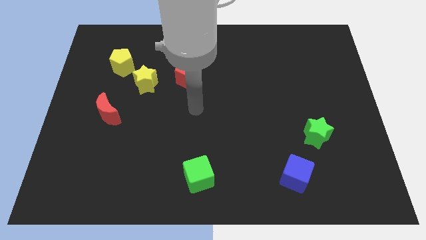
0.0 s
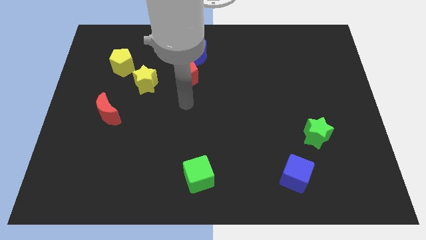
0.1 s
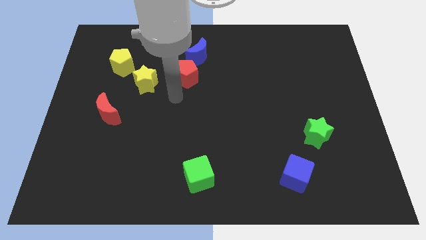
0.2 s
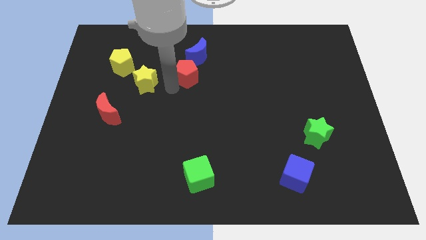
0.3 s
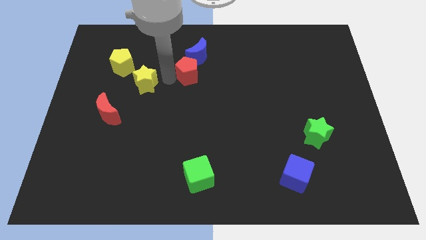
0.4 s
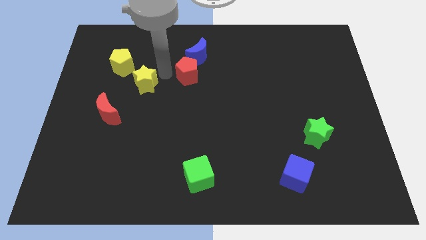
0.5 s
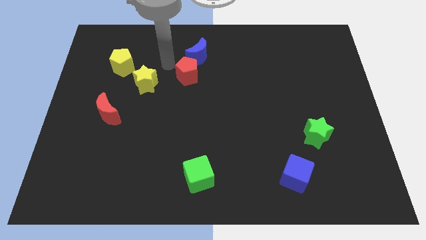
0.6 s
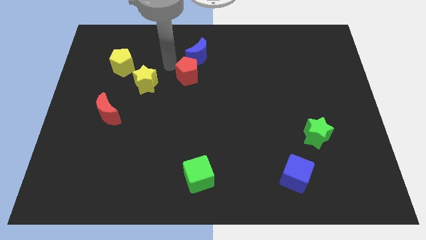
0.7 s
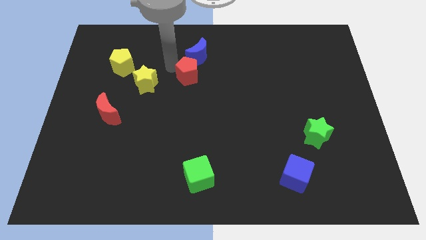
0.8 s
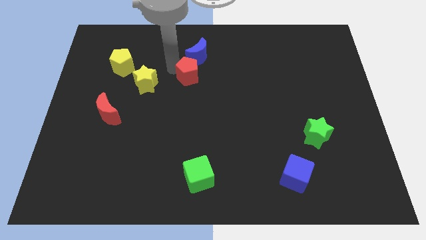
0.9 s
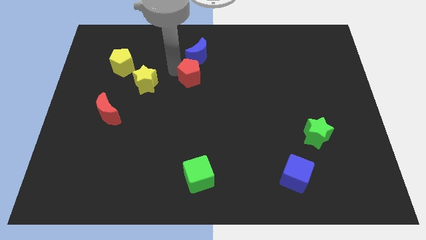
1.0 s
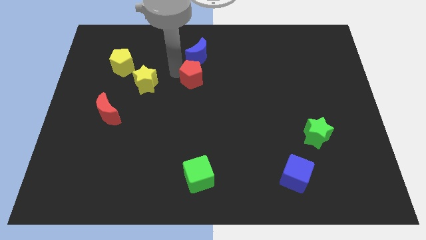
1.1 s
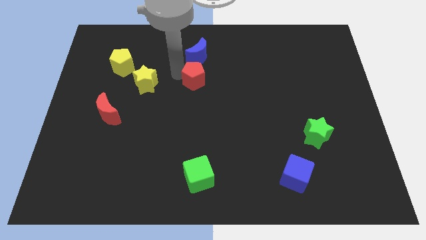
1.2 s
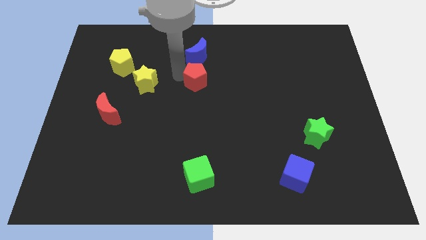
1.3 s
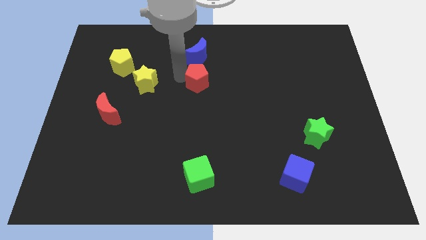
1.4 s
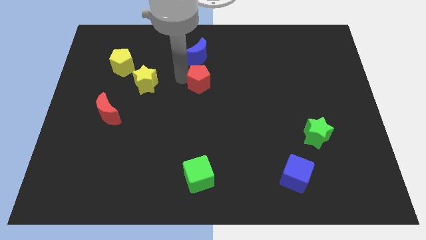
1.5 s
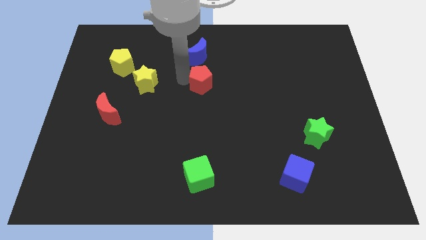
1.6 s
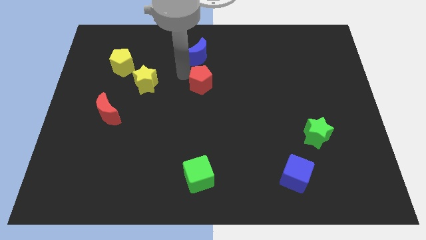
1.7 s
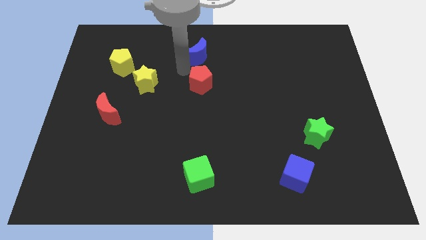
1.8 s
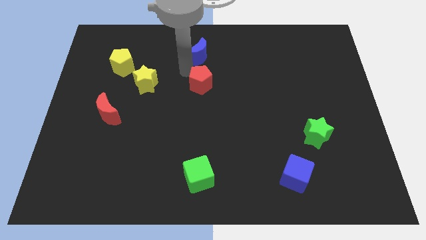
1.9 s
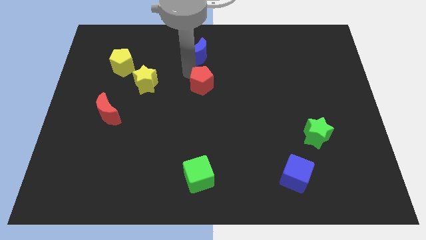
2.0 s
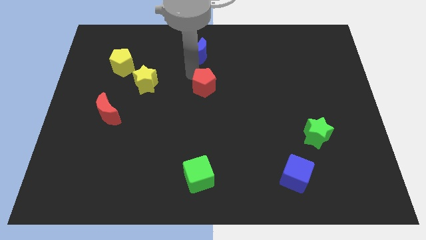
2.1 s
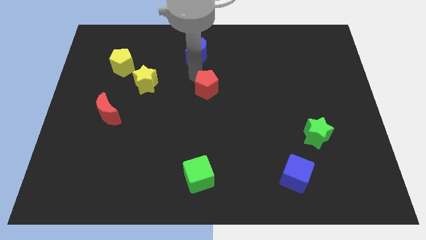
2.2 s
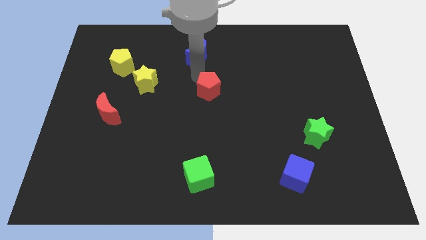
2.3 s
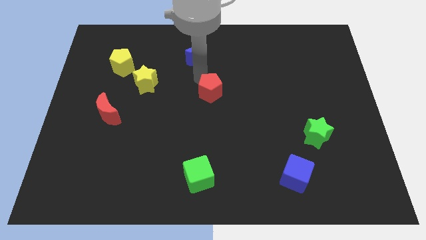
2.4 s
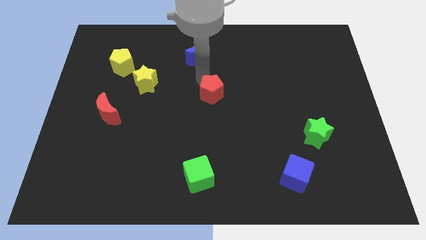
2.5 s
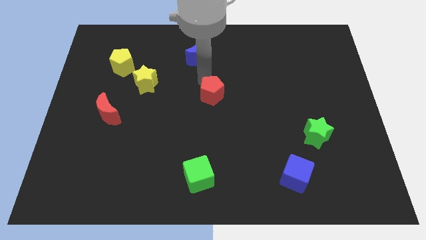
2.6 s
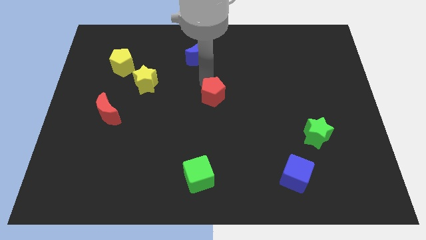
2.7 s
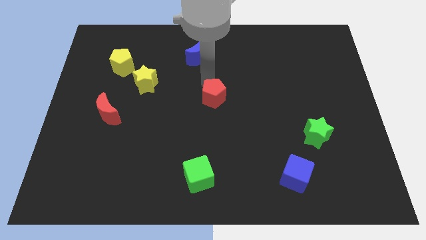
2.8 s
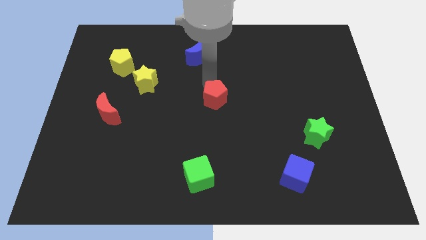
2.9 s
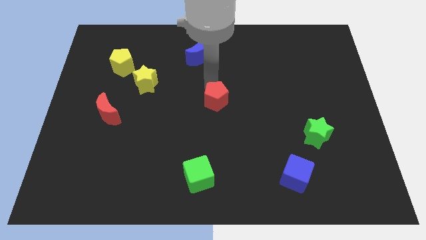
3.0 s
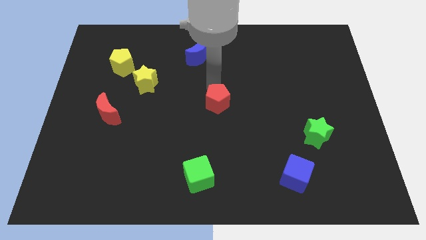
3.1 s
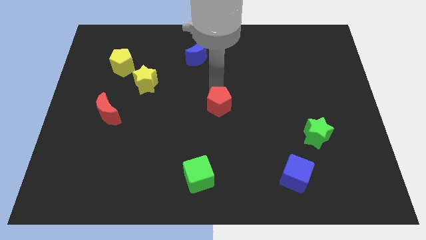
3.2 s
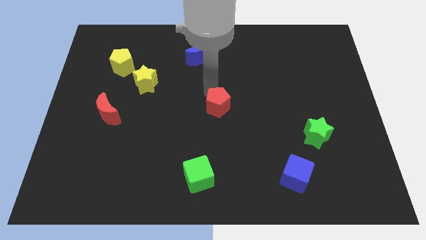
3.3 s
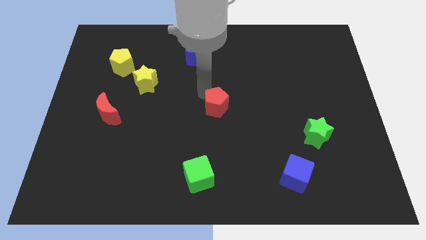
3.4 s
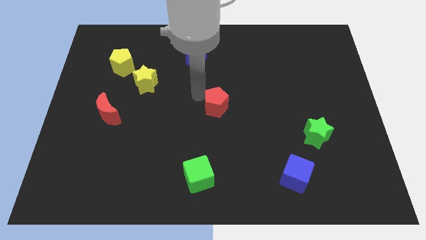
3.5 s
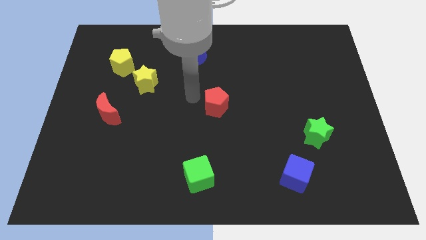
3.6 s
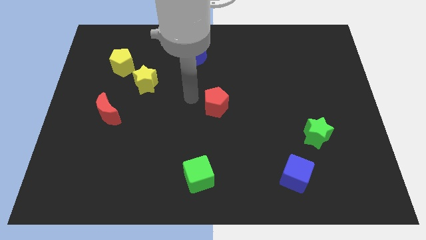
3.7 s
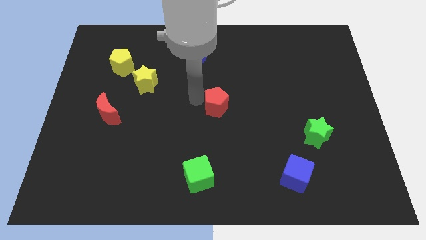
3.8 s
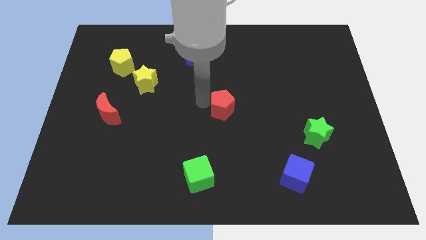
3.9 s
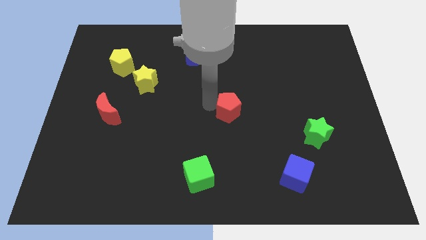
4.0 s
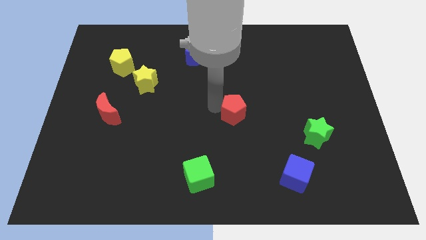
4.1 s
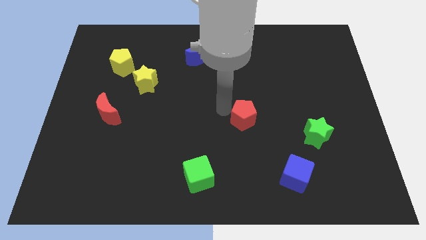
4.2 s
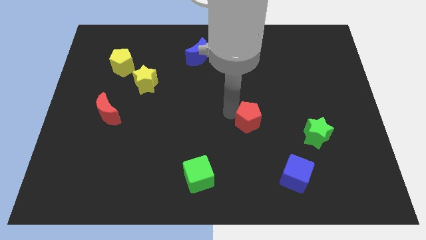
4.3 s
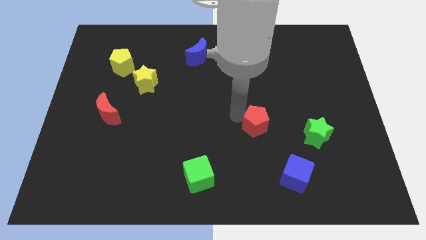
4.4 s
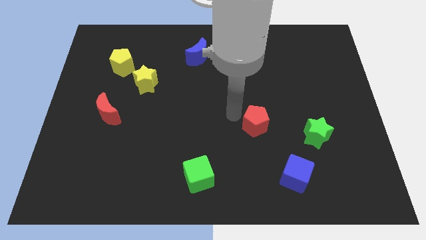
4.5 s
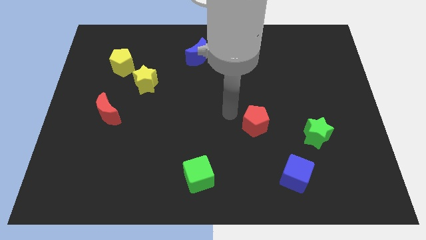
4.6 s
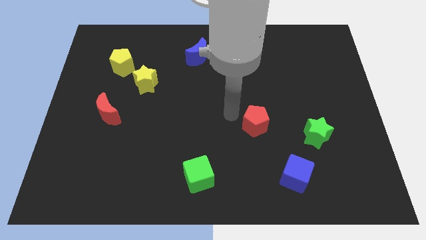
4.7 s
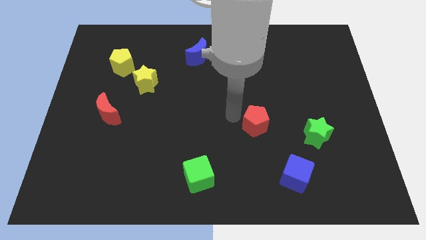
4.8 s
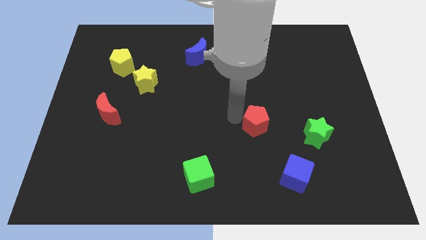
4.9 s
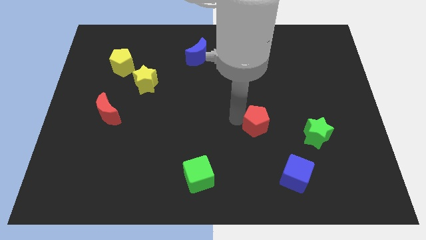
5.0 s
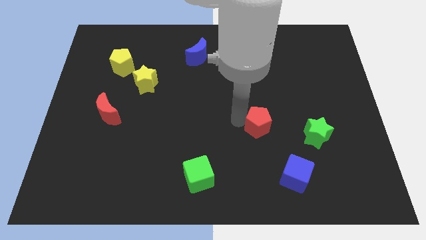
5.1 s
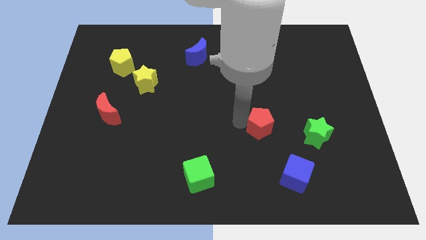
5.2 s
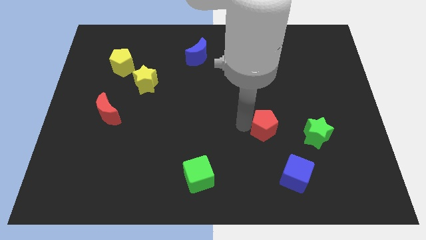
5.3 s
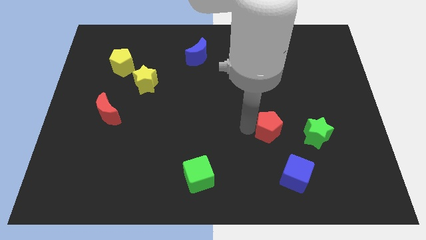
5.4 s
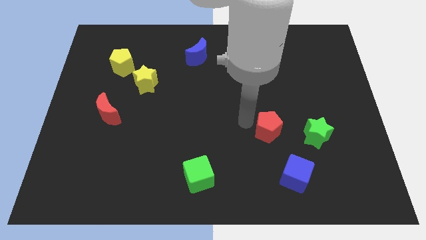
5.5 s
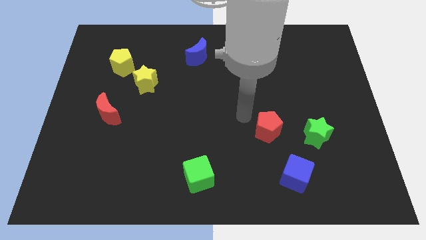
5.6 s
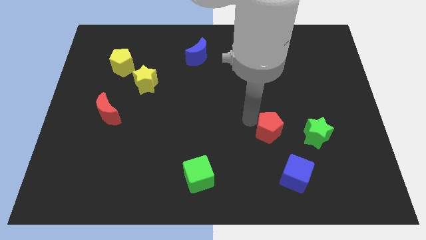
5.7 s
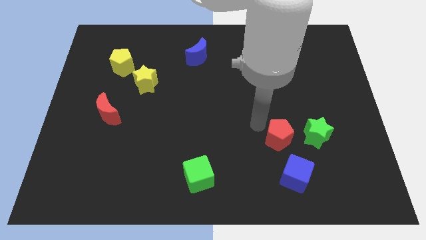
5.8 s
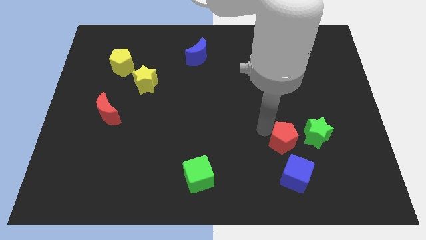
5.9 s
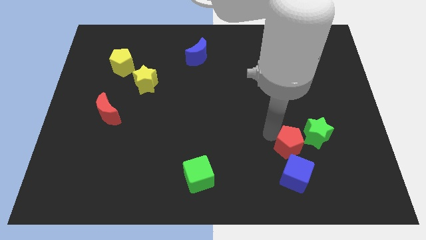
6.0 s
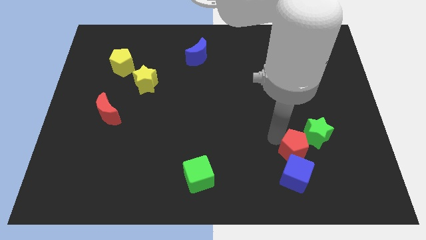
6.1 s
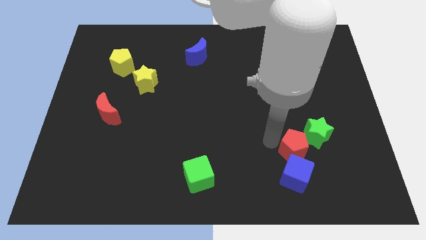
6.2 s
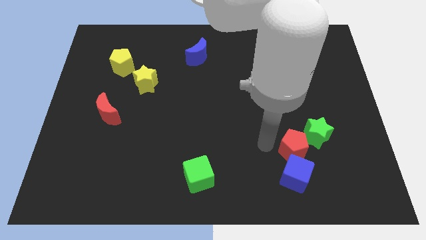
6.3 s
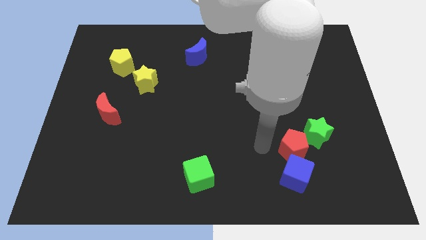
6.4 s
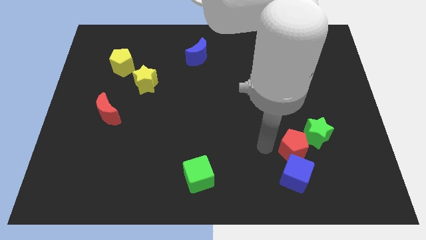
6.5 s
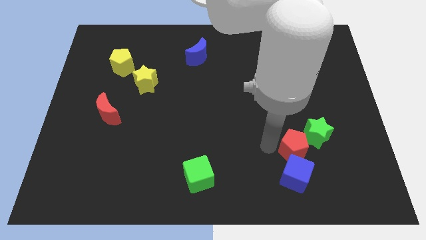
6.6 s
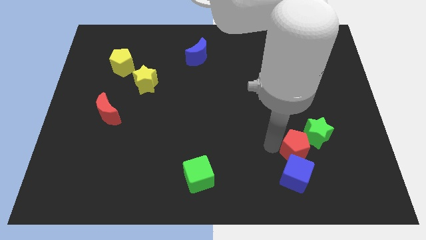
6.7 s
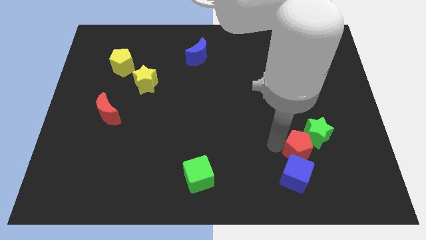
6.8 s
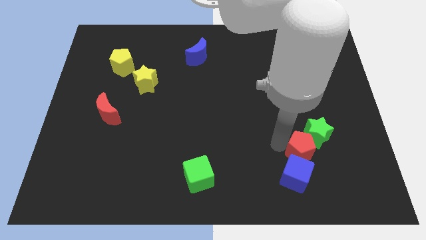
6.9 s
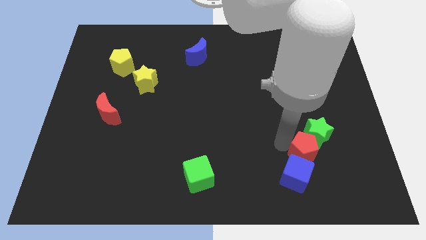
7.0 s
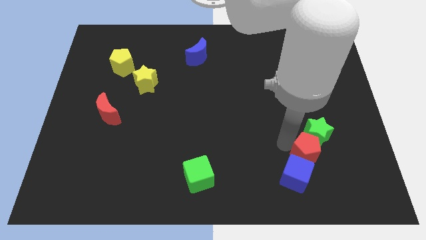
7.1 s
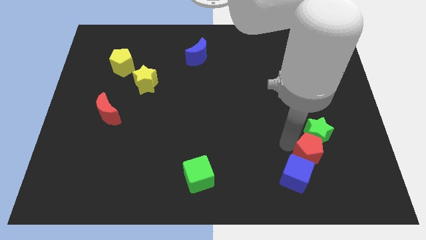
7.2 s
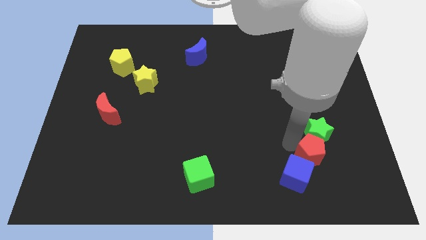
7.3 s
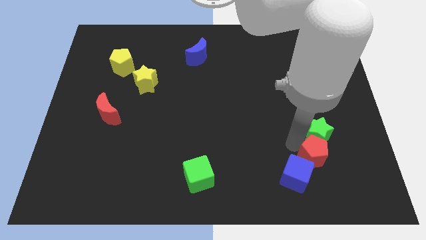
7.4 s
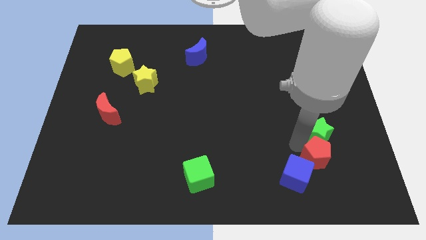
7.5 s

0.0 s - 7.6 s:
put the red pentagon diagonally down and to the right of the green star

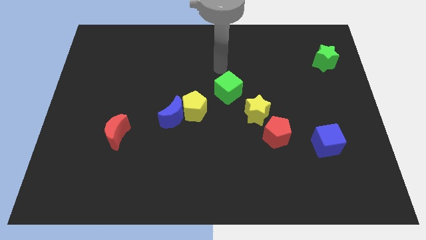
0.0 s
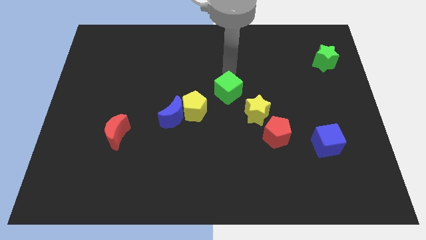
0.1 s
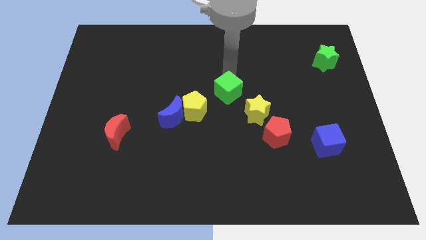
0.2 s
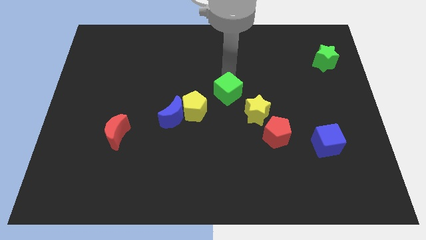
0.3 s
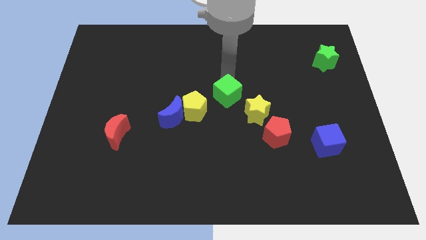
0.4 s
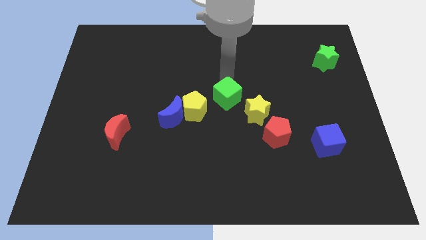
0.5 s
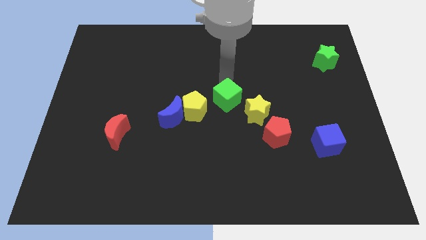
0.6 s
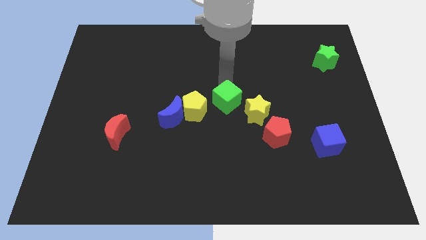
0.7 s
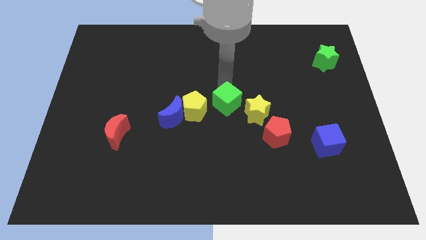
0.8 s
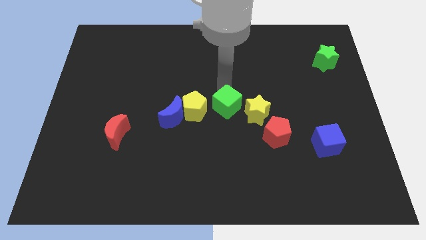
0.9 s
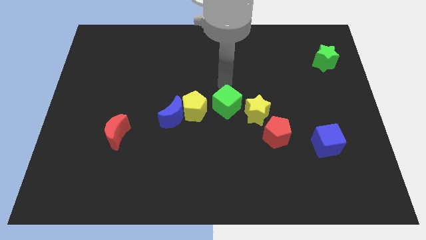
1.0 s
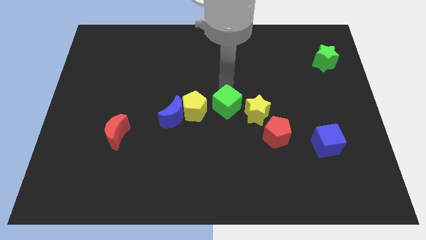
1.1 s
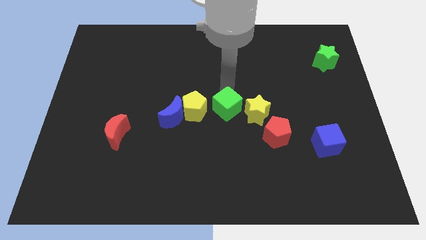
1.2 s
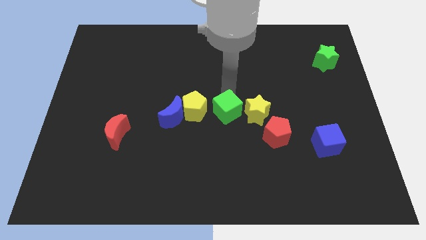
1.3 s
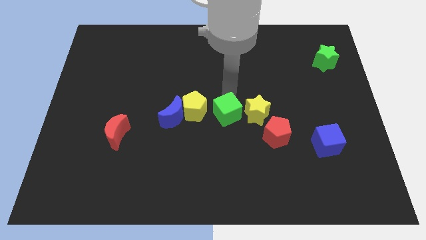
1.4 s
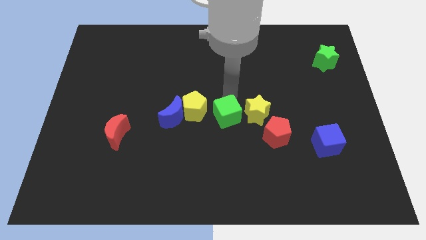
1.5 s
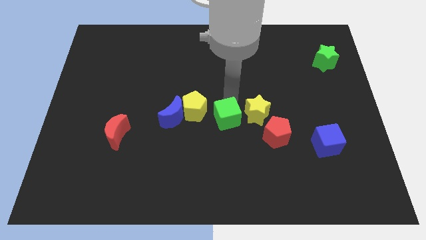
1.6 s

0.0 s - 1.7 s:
move the green cube to the left side of the red pentagon
